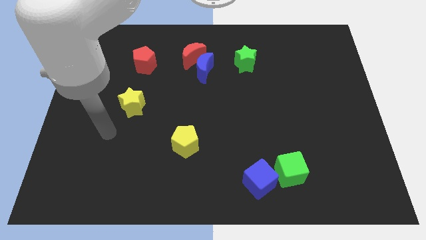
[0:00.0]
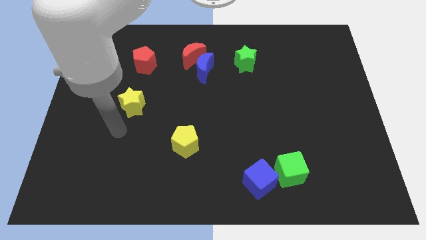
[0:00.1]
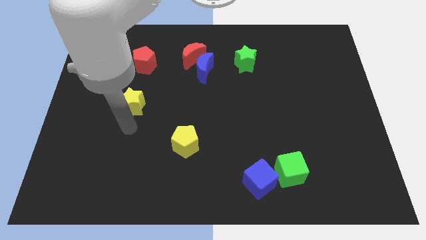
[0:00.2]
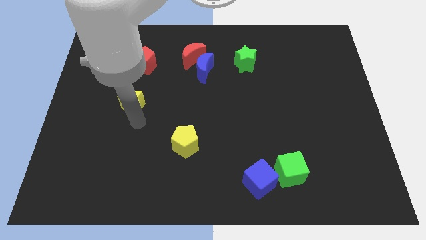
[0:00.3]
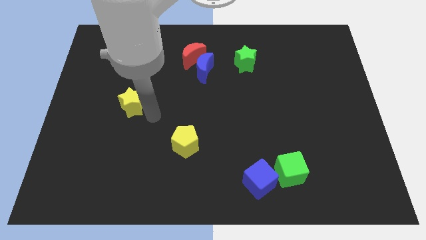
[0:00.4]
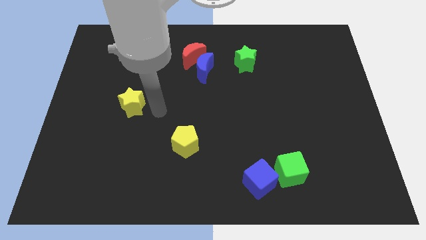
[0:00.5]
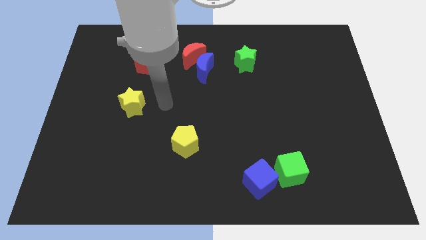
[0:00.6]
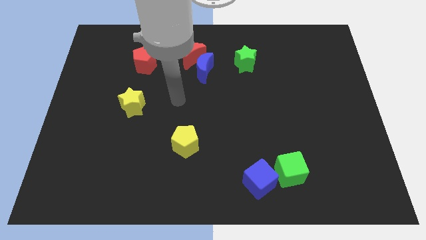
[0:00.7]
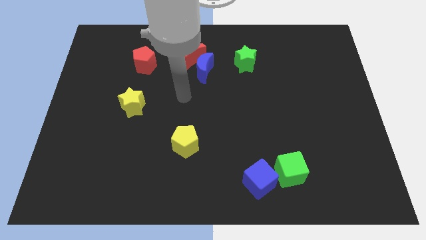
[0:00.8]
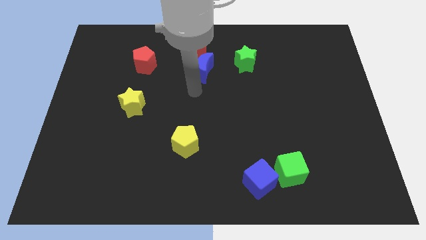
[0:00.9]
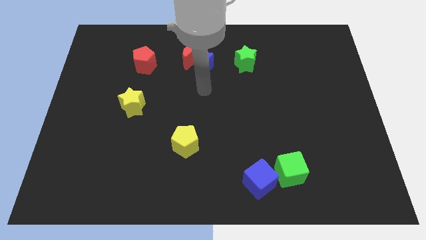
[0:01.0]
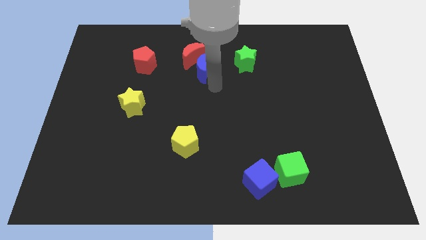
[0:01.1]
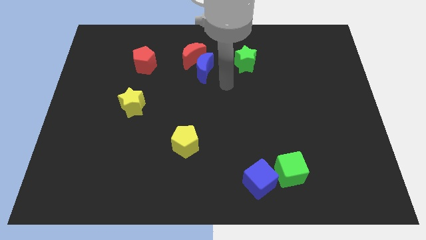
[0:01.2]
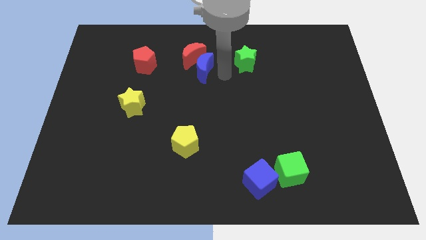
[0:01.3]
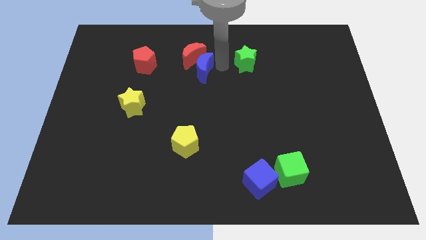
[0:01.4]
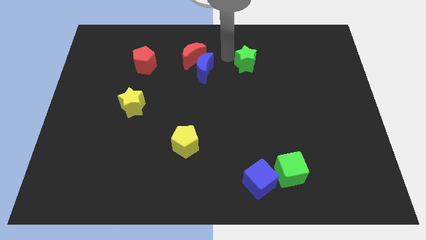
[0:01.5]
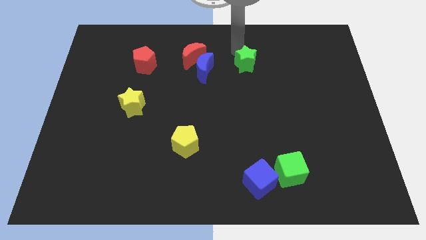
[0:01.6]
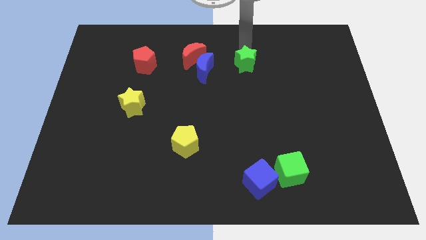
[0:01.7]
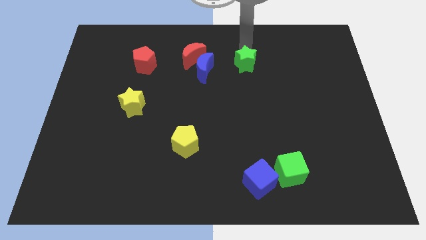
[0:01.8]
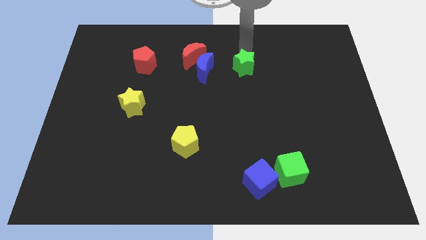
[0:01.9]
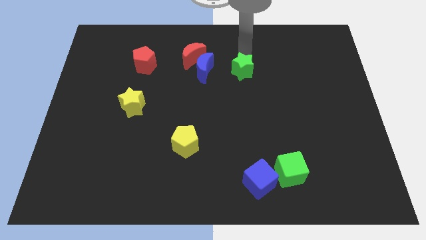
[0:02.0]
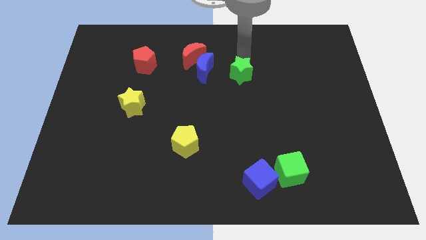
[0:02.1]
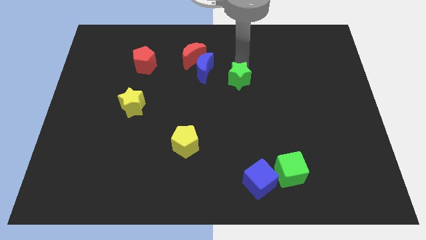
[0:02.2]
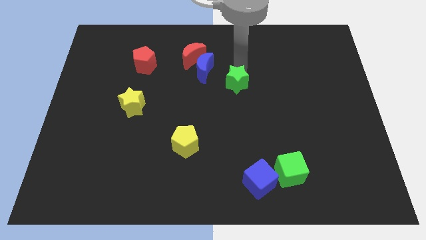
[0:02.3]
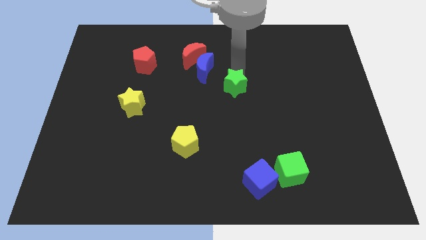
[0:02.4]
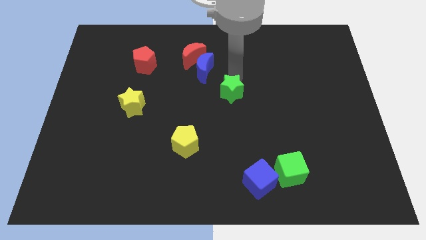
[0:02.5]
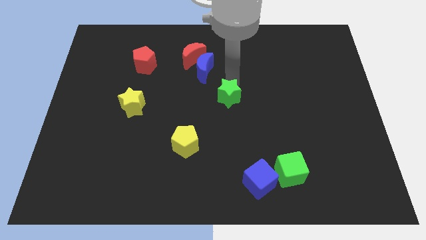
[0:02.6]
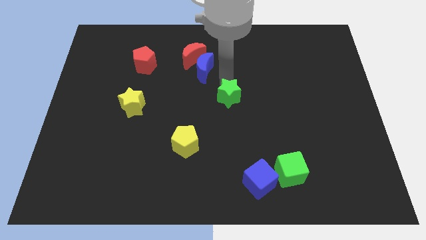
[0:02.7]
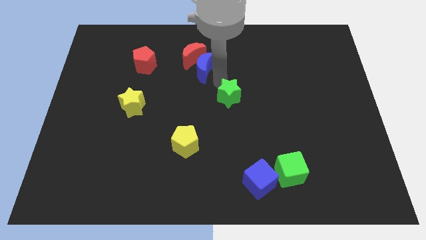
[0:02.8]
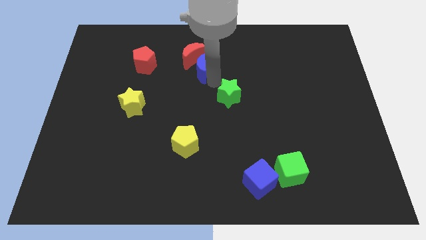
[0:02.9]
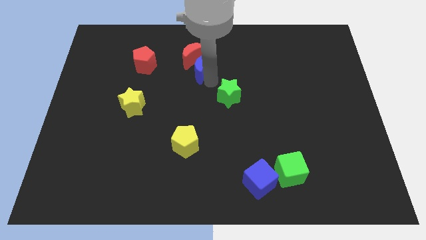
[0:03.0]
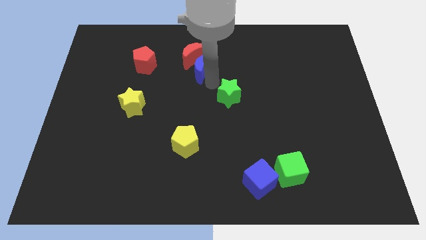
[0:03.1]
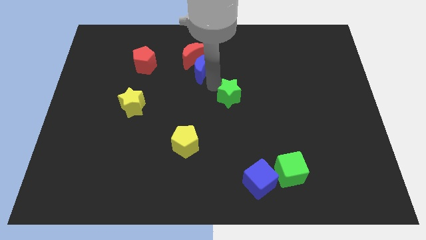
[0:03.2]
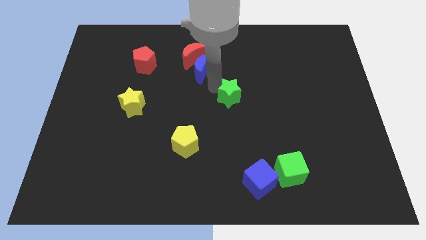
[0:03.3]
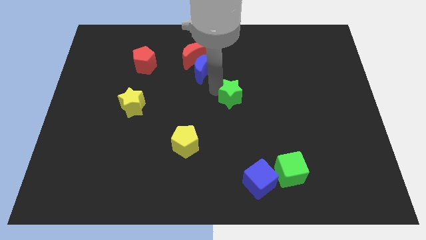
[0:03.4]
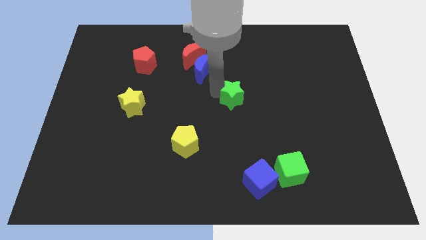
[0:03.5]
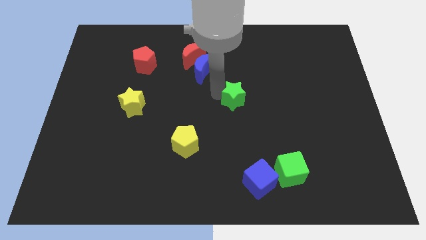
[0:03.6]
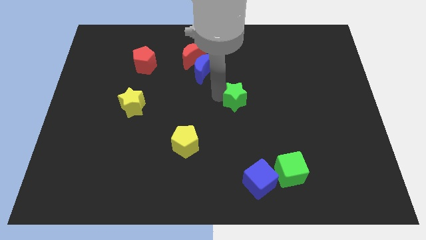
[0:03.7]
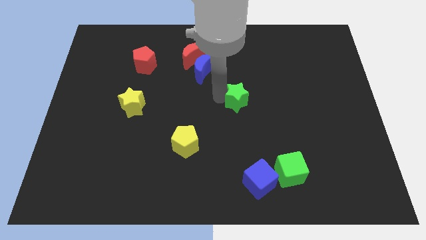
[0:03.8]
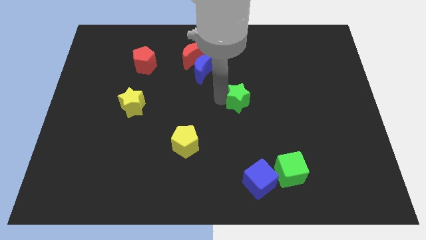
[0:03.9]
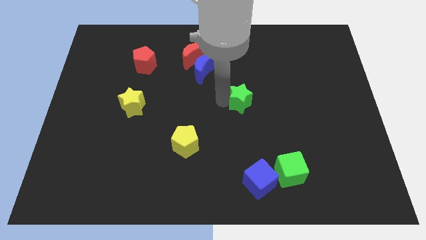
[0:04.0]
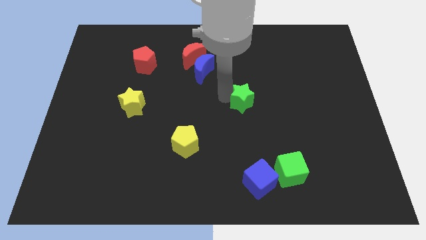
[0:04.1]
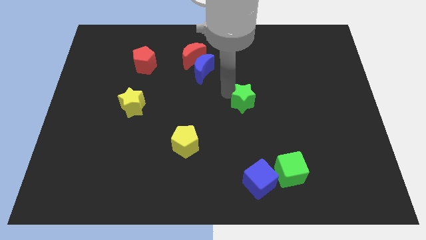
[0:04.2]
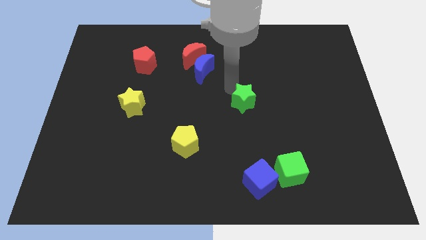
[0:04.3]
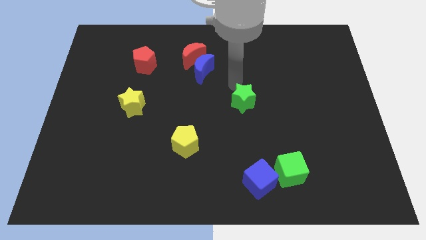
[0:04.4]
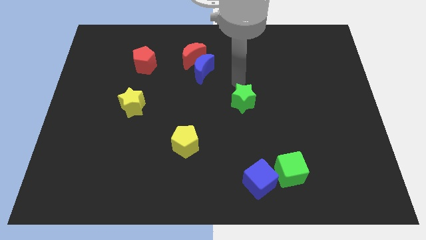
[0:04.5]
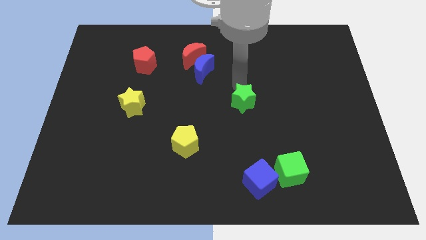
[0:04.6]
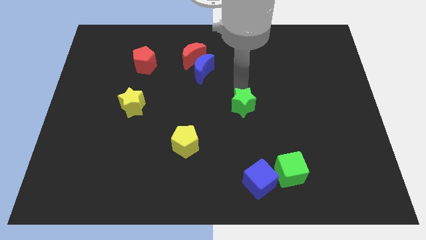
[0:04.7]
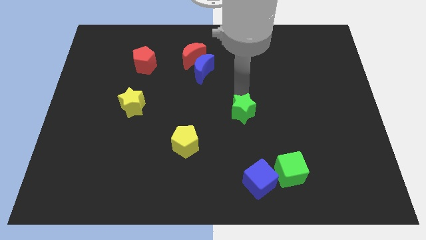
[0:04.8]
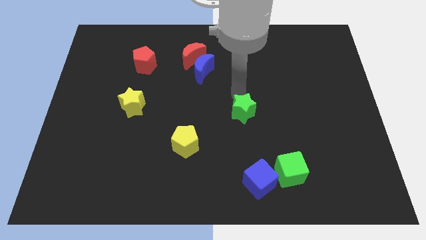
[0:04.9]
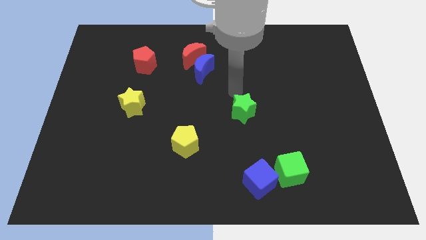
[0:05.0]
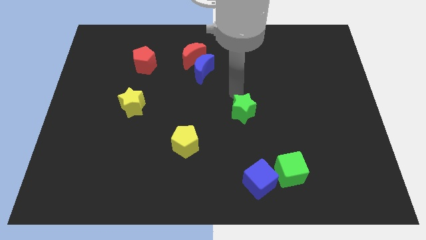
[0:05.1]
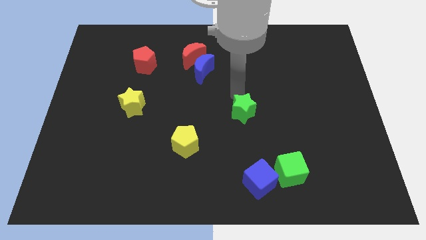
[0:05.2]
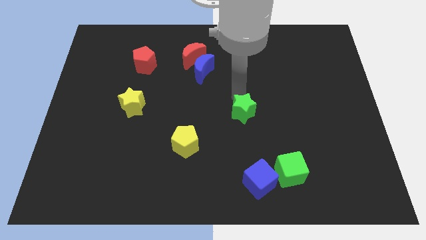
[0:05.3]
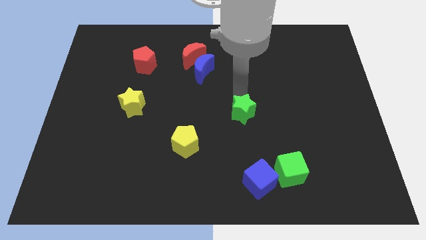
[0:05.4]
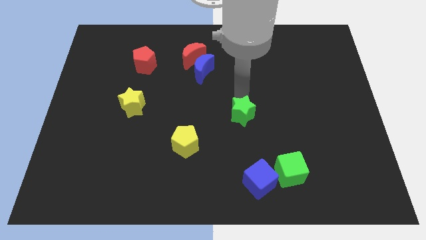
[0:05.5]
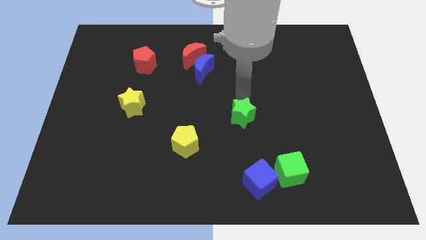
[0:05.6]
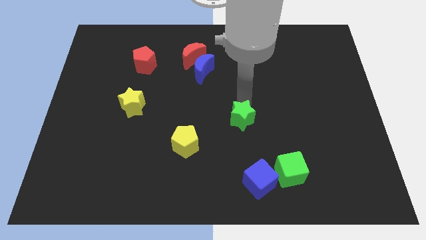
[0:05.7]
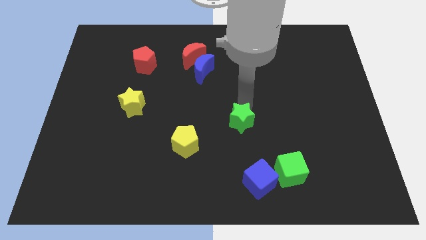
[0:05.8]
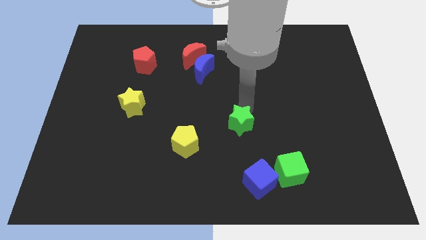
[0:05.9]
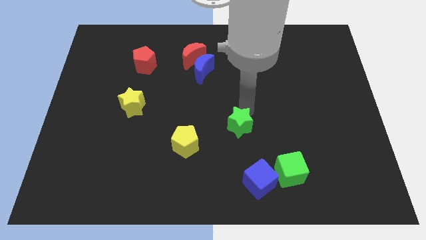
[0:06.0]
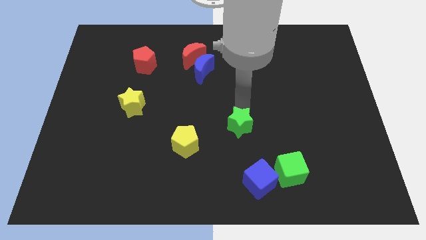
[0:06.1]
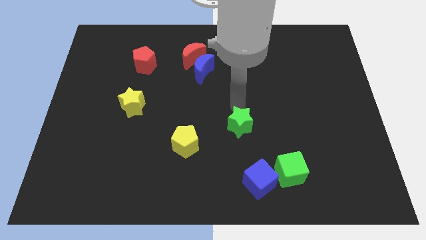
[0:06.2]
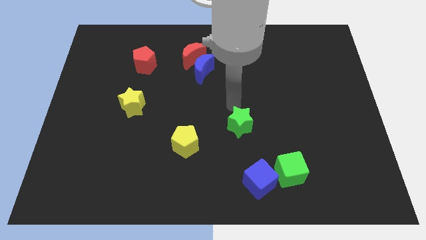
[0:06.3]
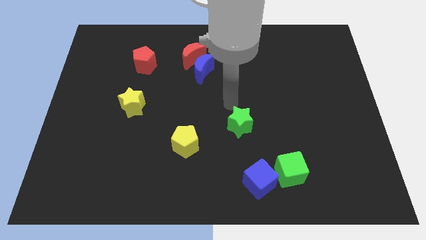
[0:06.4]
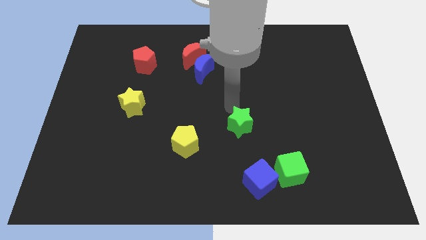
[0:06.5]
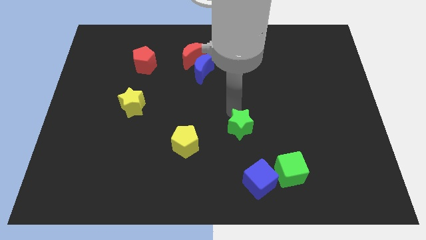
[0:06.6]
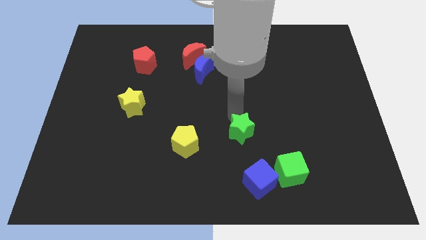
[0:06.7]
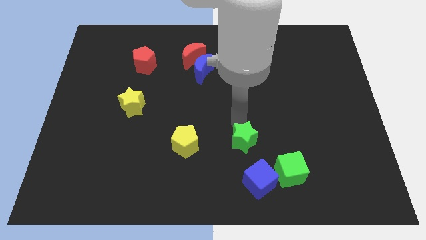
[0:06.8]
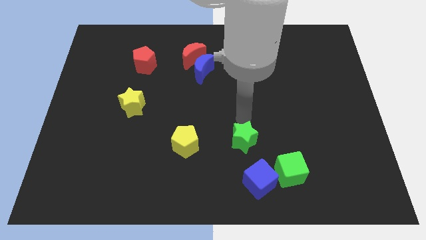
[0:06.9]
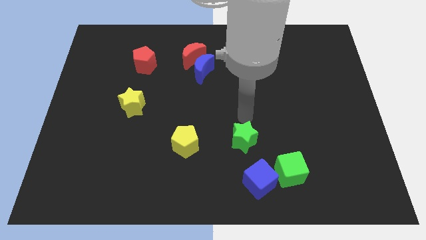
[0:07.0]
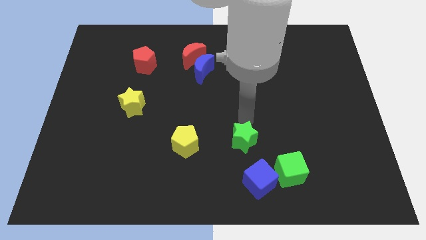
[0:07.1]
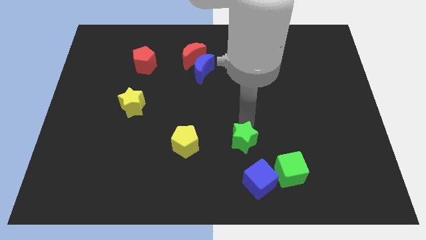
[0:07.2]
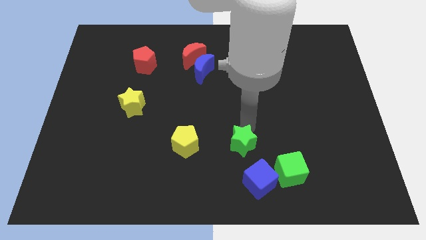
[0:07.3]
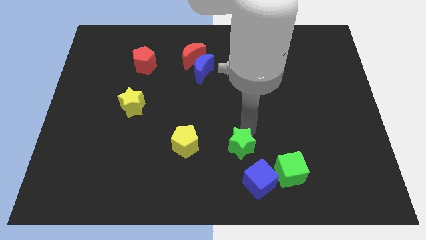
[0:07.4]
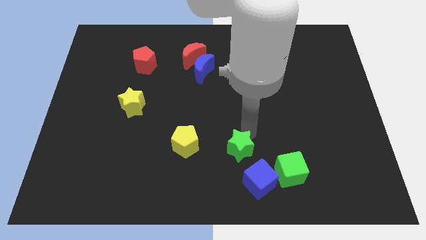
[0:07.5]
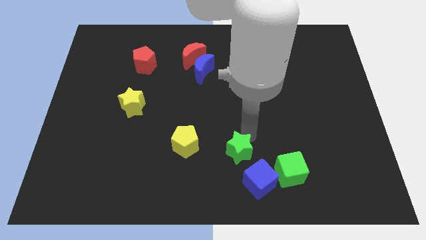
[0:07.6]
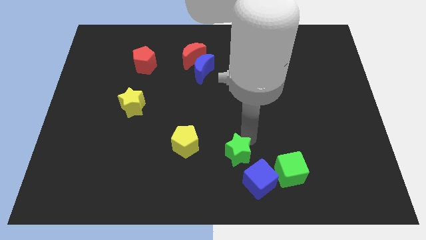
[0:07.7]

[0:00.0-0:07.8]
slide the green star to the left of the green cube
